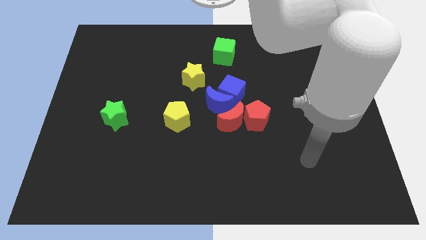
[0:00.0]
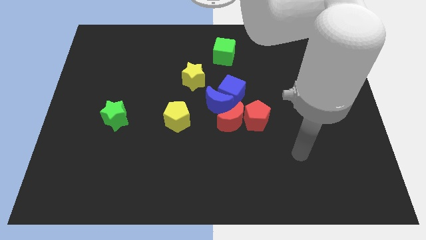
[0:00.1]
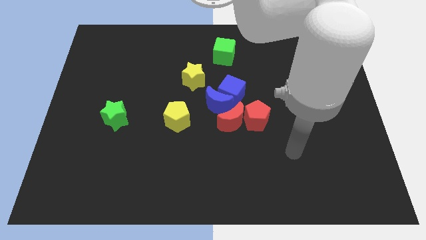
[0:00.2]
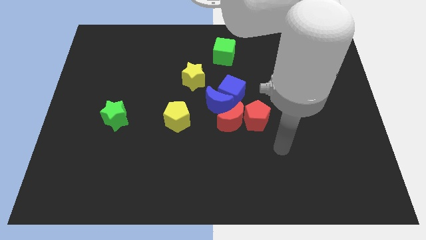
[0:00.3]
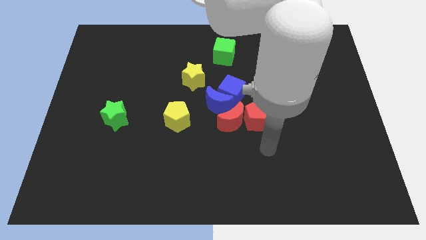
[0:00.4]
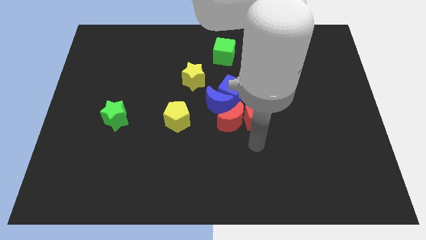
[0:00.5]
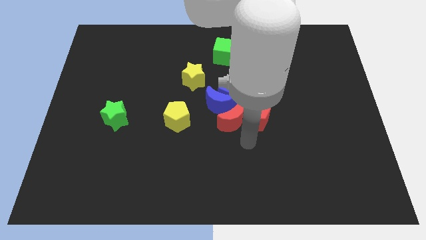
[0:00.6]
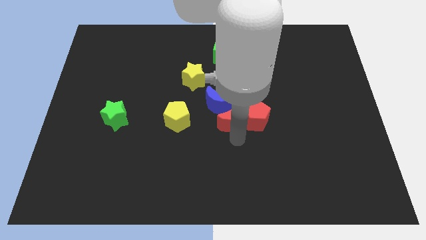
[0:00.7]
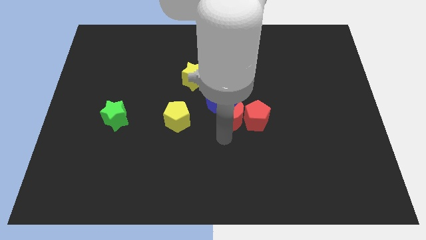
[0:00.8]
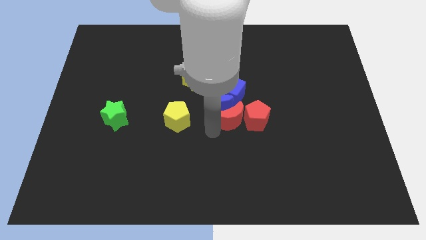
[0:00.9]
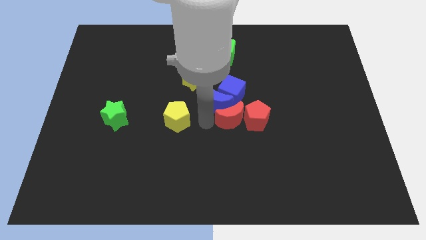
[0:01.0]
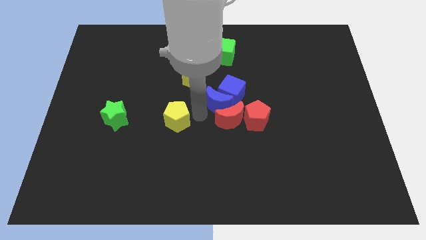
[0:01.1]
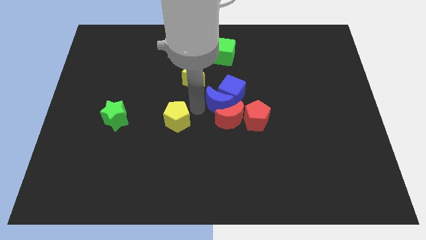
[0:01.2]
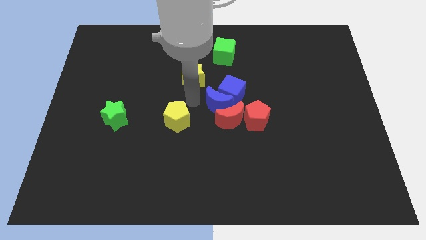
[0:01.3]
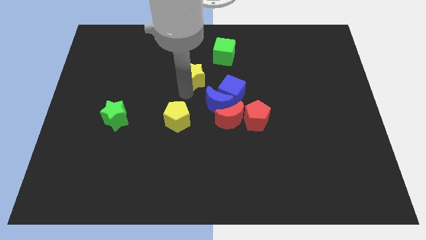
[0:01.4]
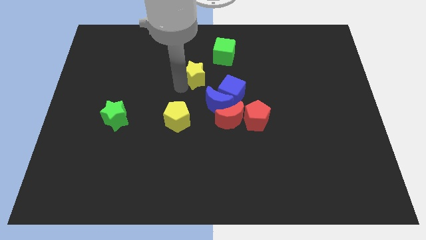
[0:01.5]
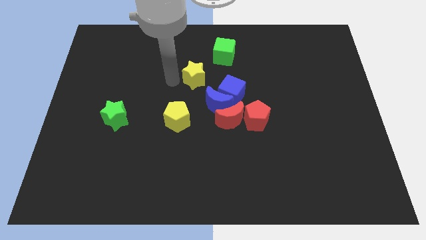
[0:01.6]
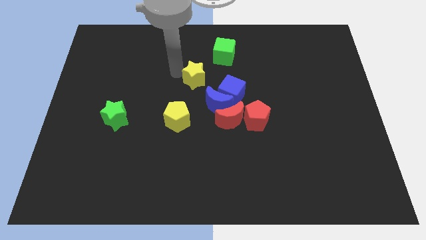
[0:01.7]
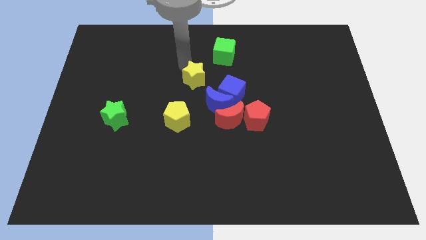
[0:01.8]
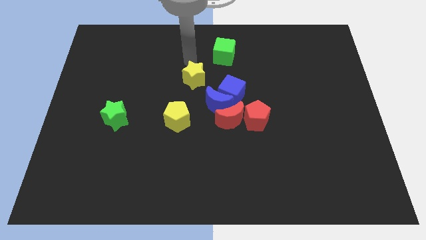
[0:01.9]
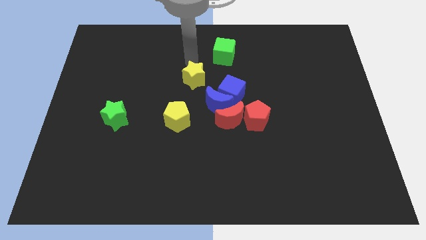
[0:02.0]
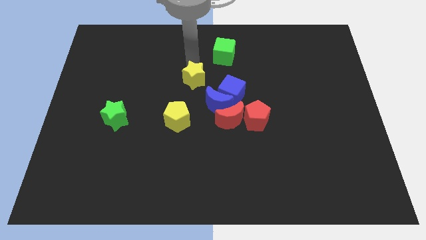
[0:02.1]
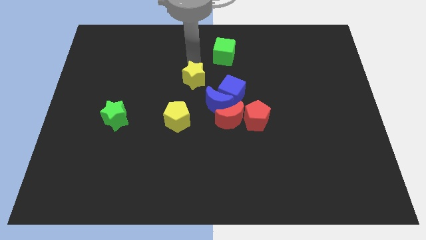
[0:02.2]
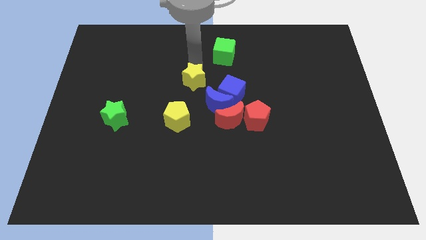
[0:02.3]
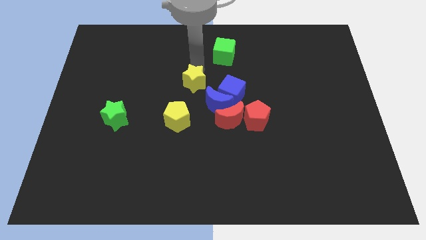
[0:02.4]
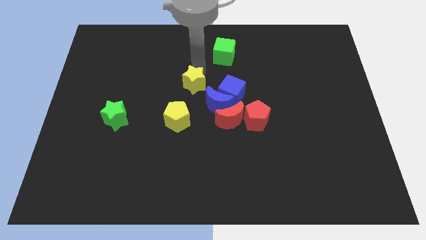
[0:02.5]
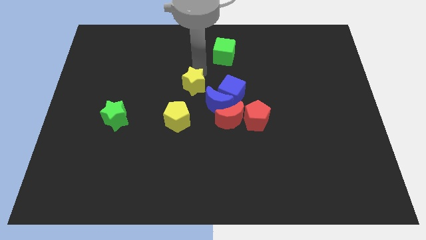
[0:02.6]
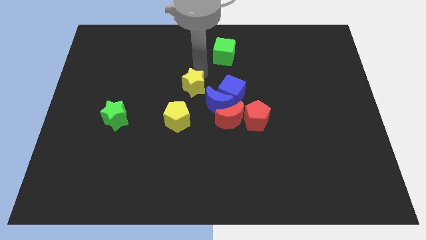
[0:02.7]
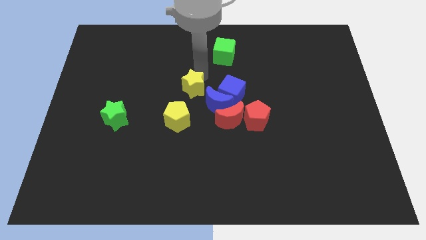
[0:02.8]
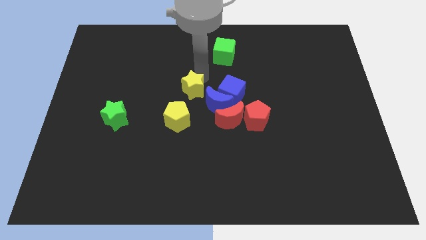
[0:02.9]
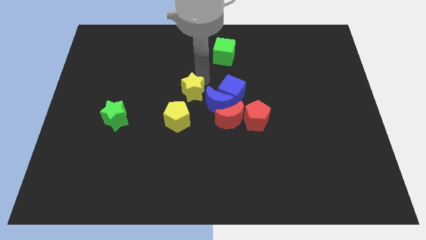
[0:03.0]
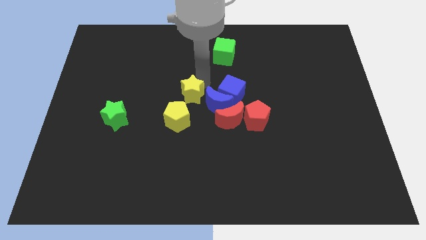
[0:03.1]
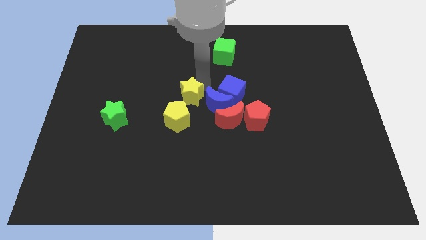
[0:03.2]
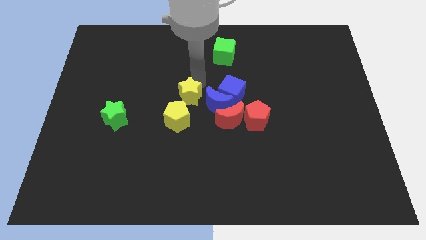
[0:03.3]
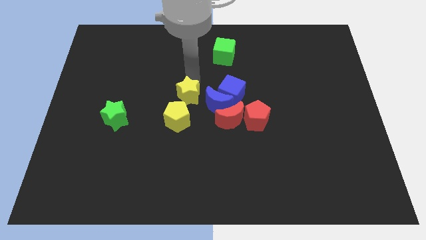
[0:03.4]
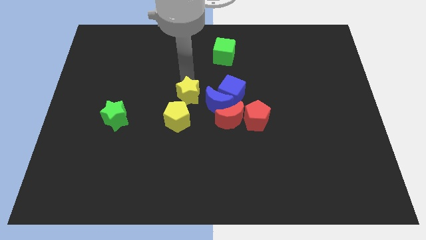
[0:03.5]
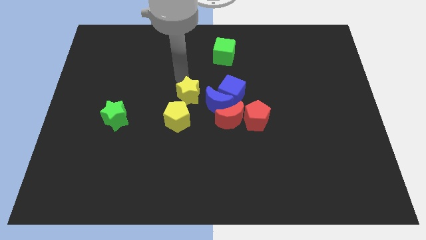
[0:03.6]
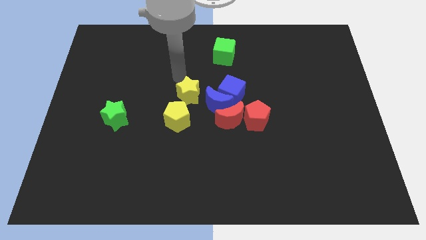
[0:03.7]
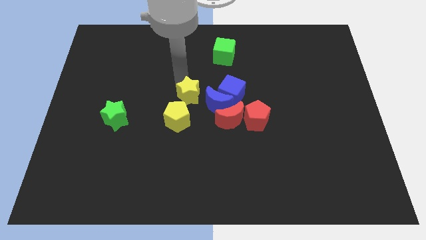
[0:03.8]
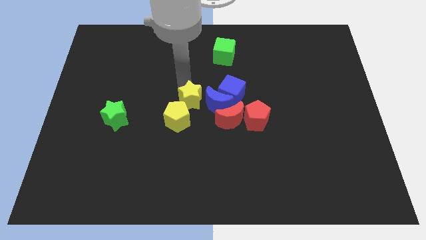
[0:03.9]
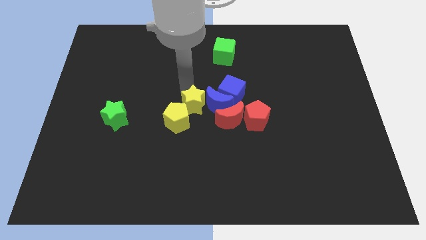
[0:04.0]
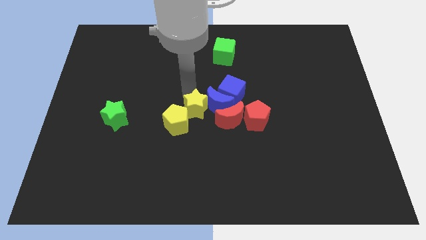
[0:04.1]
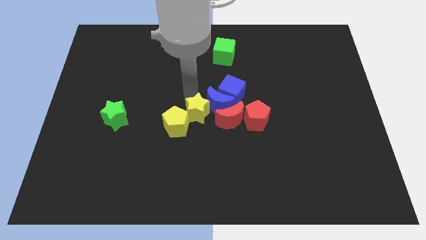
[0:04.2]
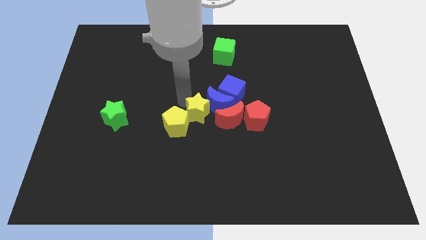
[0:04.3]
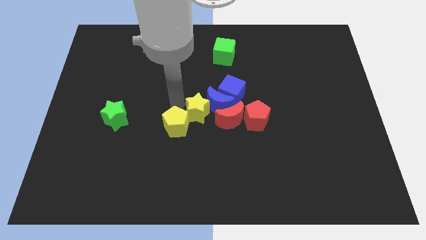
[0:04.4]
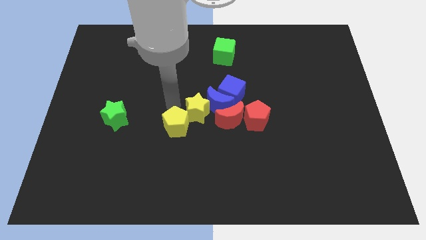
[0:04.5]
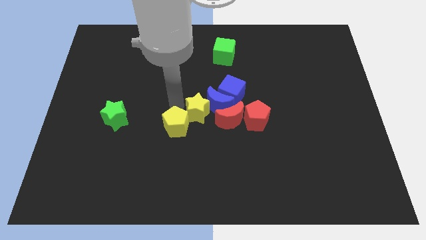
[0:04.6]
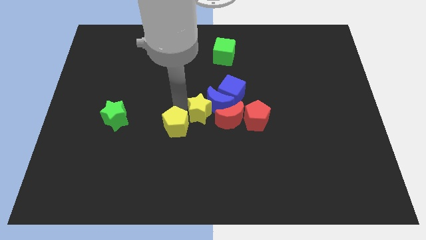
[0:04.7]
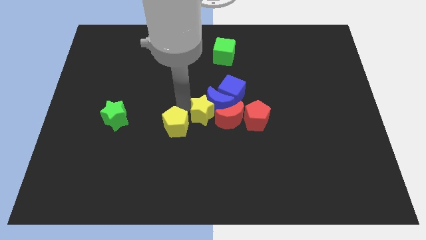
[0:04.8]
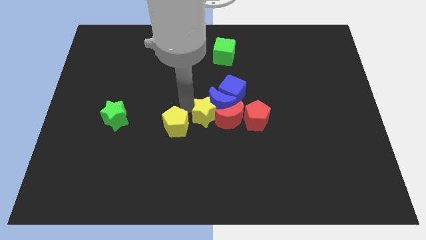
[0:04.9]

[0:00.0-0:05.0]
move the yellow star next to the red moon

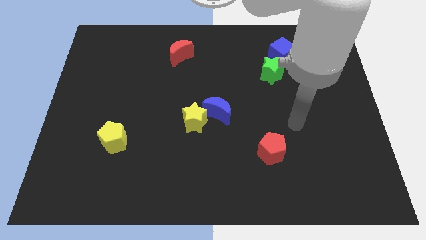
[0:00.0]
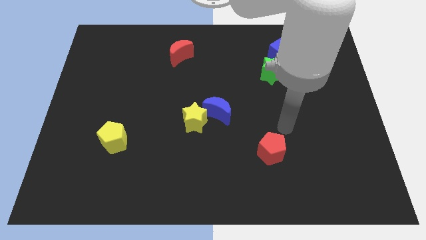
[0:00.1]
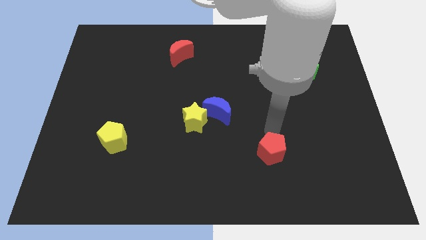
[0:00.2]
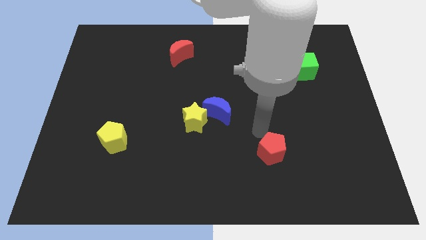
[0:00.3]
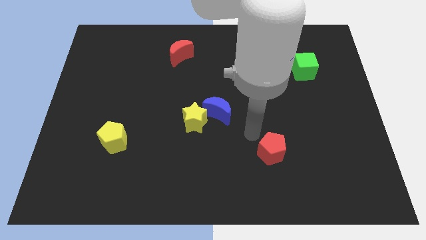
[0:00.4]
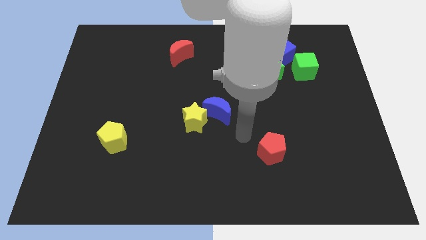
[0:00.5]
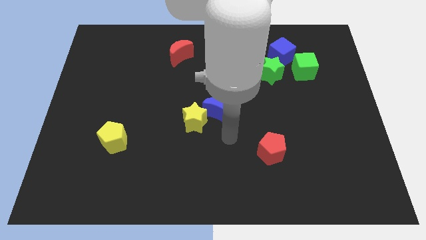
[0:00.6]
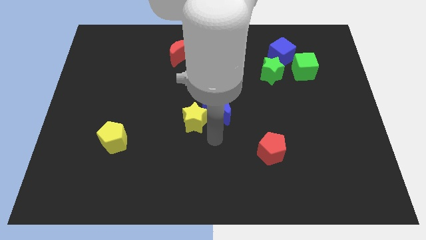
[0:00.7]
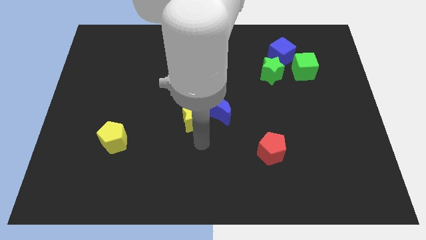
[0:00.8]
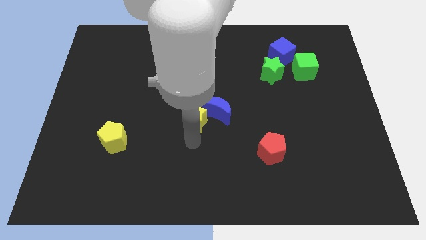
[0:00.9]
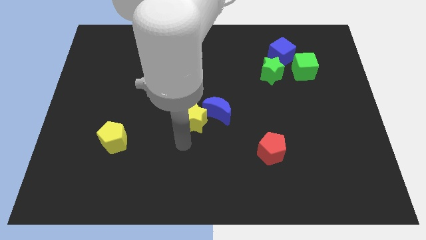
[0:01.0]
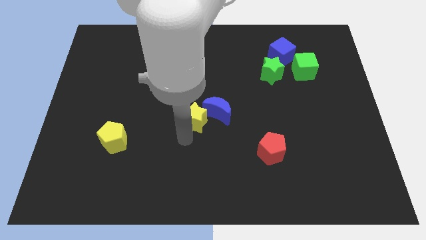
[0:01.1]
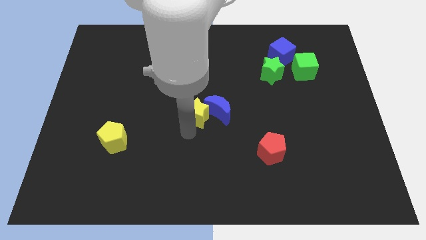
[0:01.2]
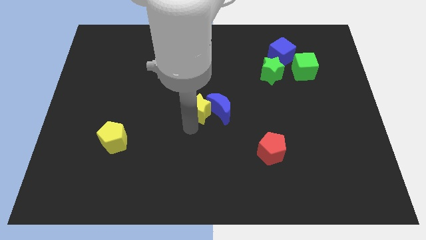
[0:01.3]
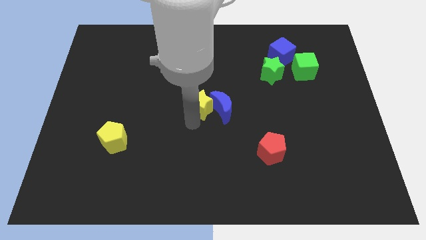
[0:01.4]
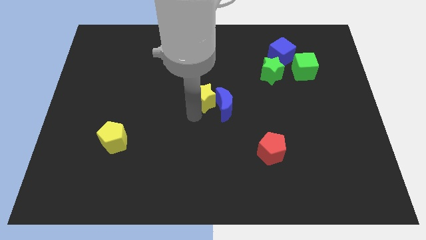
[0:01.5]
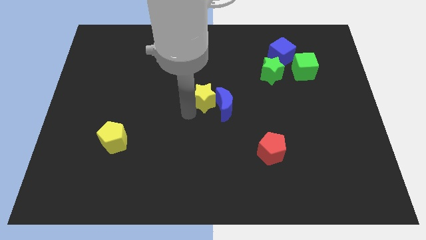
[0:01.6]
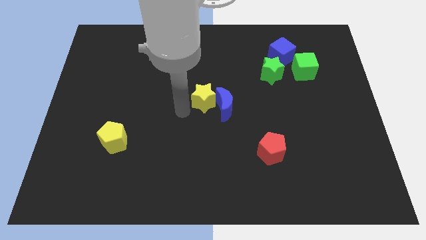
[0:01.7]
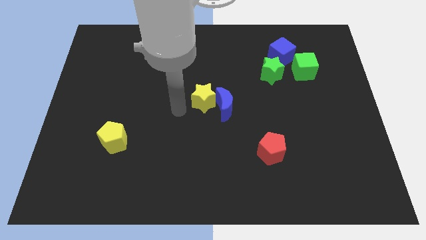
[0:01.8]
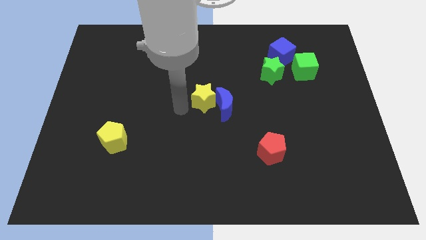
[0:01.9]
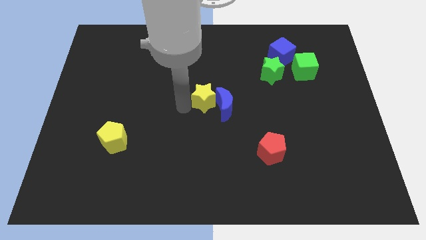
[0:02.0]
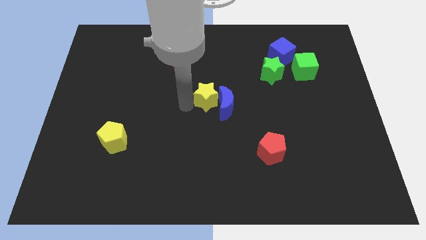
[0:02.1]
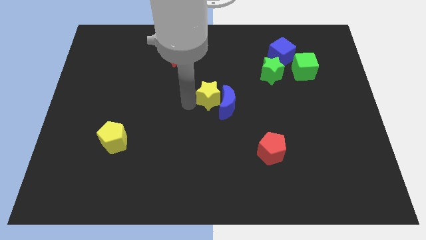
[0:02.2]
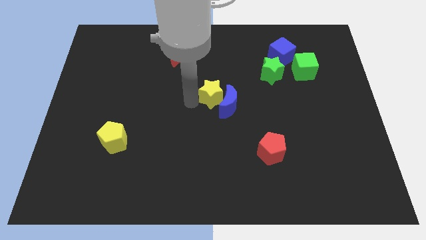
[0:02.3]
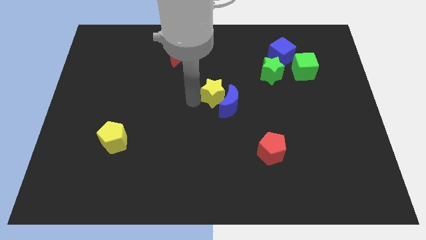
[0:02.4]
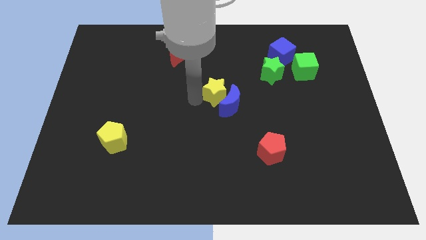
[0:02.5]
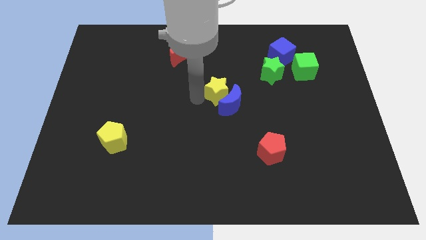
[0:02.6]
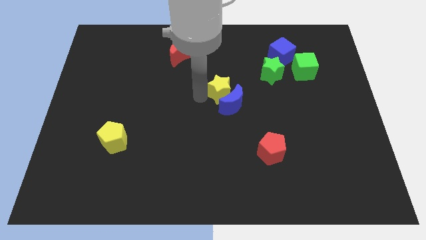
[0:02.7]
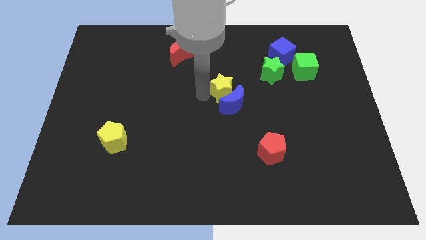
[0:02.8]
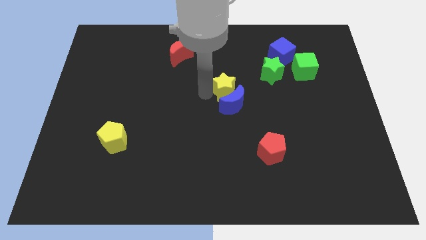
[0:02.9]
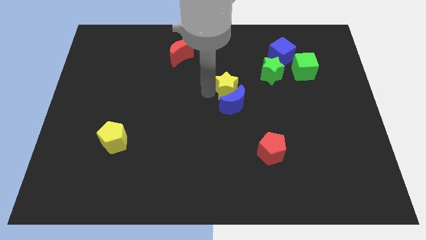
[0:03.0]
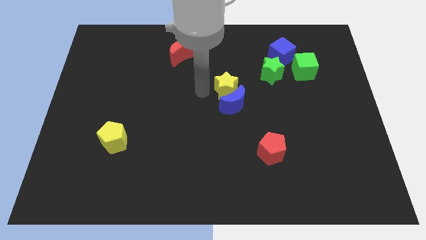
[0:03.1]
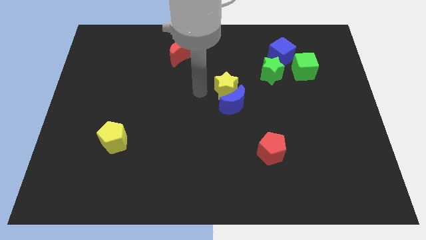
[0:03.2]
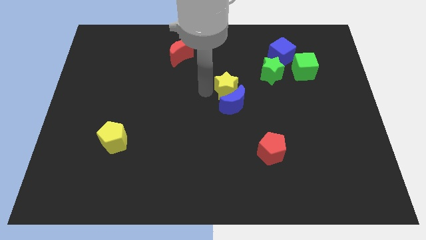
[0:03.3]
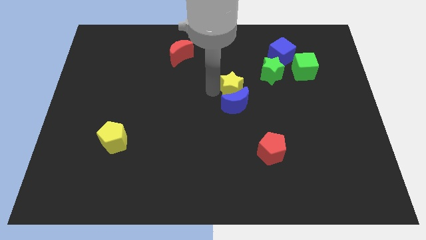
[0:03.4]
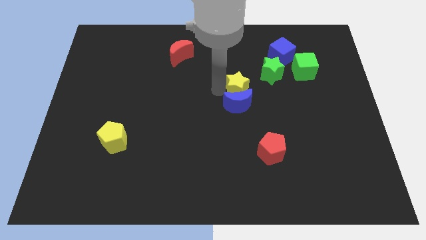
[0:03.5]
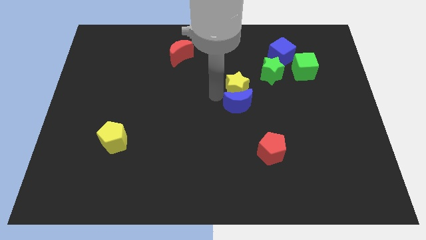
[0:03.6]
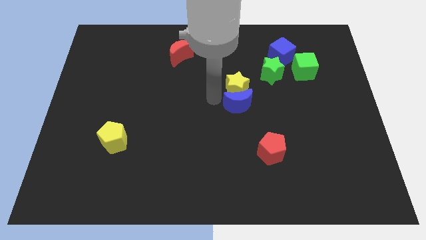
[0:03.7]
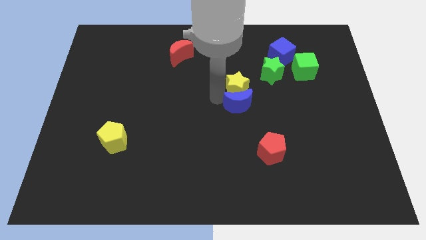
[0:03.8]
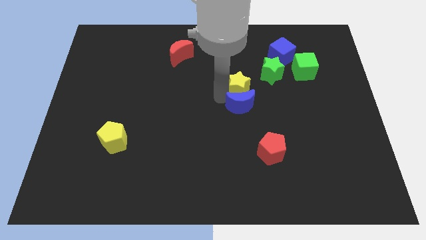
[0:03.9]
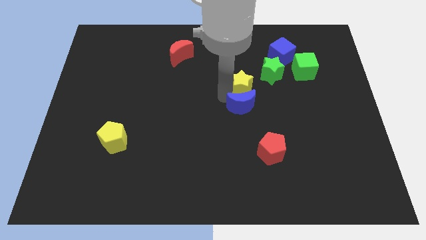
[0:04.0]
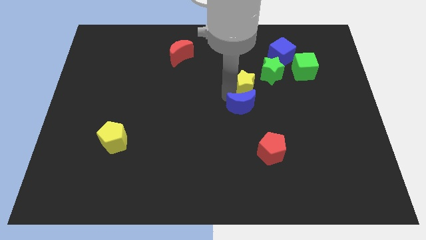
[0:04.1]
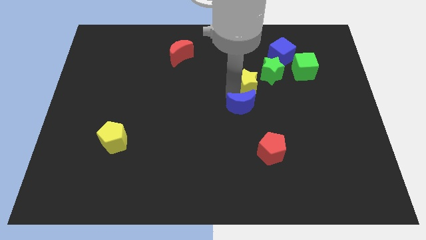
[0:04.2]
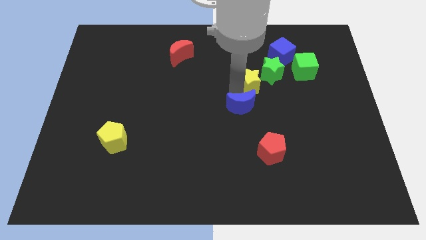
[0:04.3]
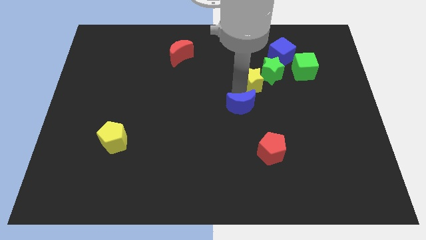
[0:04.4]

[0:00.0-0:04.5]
put the yellow star to the green star
